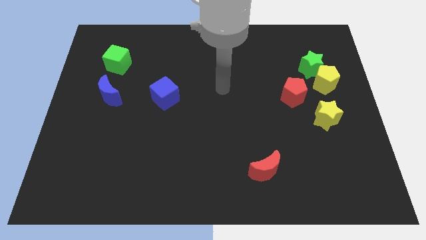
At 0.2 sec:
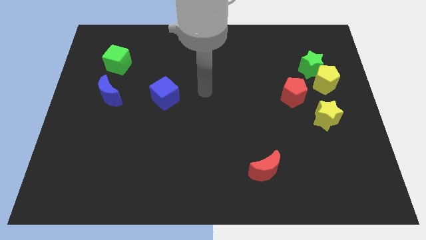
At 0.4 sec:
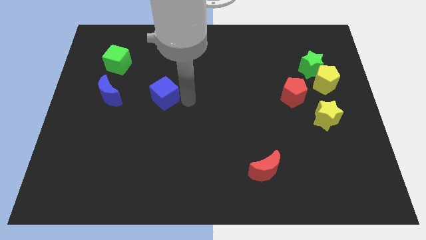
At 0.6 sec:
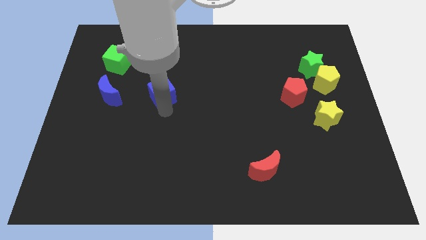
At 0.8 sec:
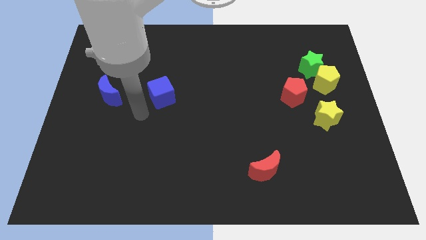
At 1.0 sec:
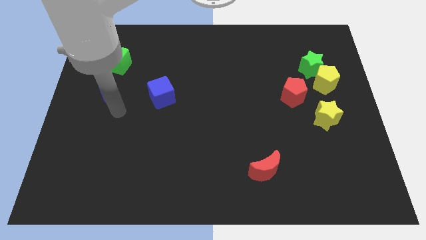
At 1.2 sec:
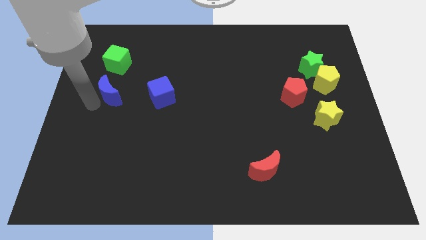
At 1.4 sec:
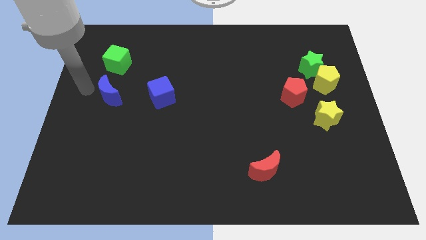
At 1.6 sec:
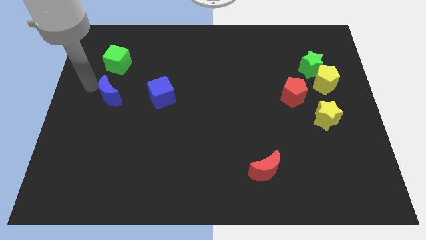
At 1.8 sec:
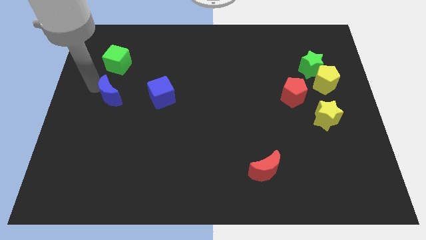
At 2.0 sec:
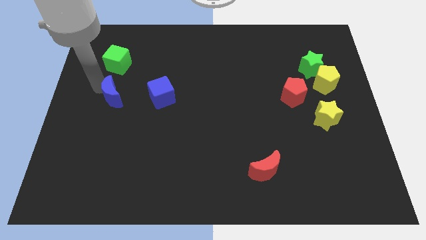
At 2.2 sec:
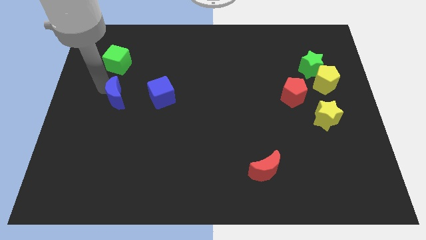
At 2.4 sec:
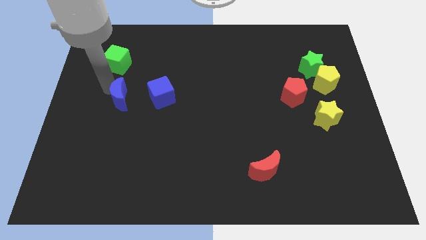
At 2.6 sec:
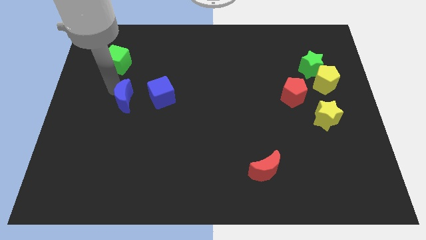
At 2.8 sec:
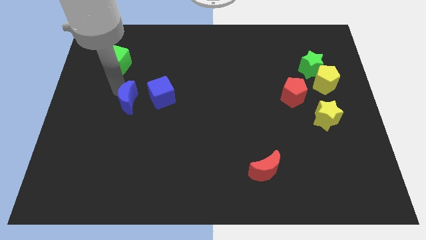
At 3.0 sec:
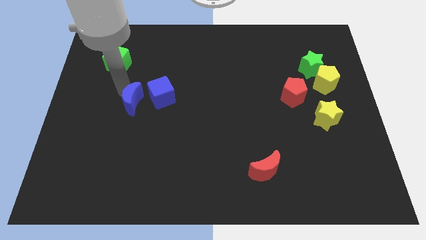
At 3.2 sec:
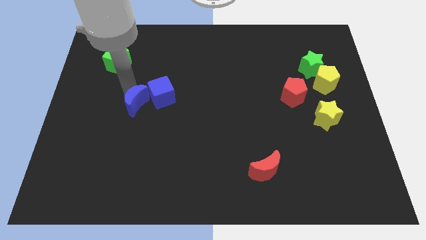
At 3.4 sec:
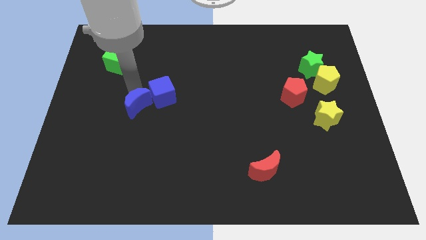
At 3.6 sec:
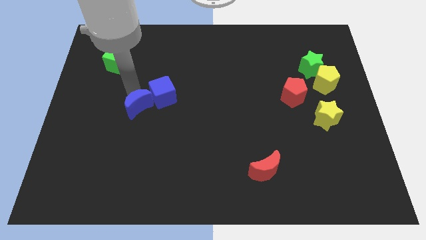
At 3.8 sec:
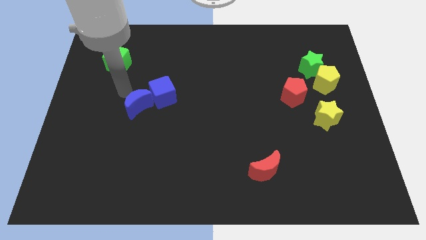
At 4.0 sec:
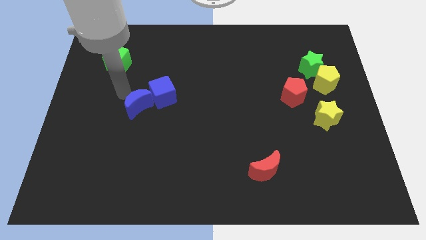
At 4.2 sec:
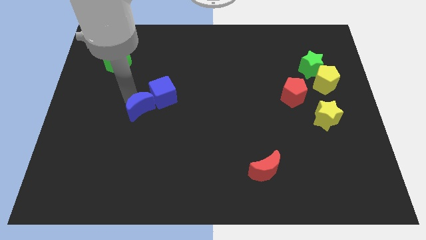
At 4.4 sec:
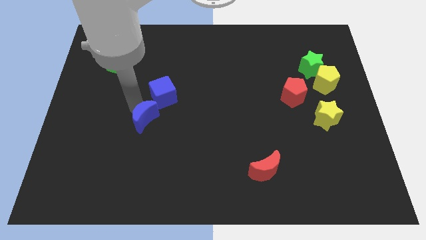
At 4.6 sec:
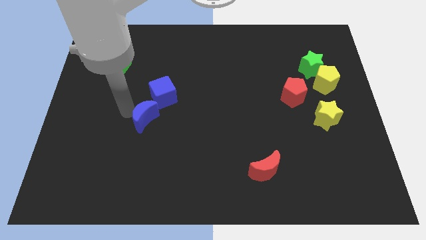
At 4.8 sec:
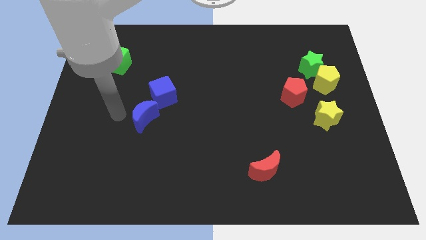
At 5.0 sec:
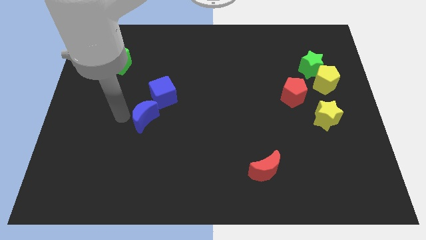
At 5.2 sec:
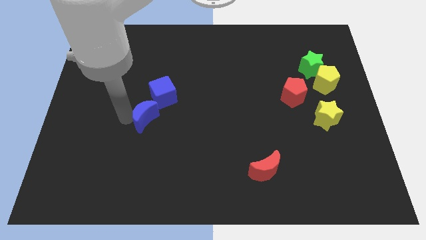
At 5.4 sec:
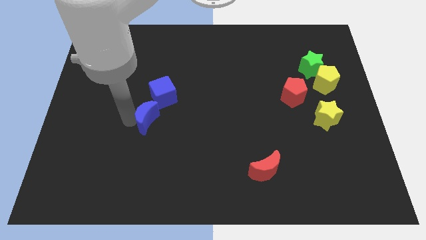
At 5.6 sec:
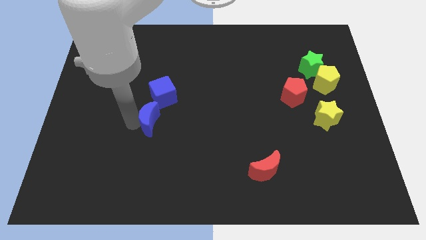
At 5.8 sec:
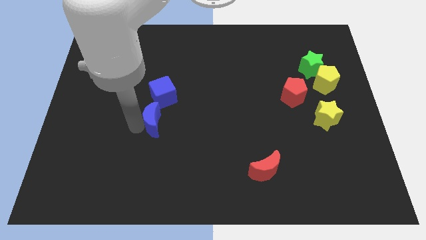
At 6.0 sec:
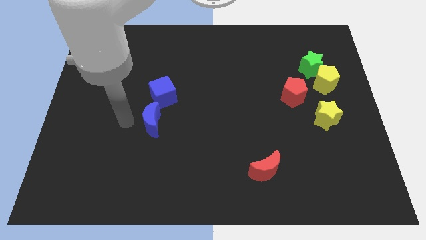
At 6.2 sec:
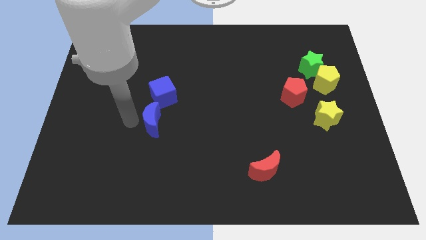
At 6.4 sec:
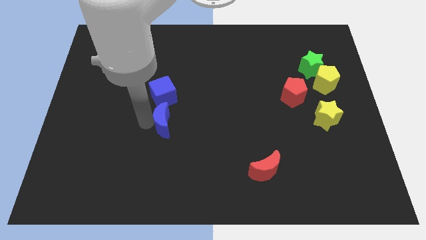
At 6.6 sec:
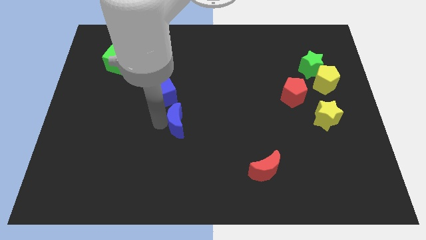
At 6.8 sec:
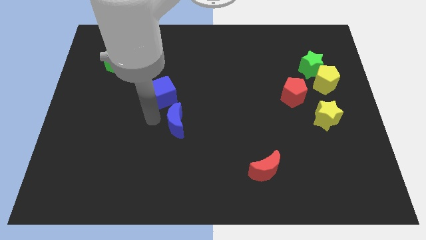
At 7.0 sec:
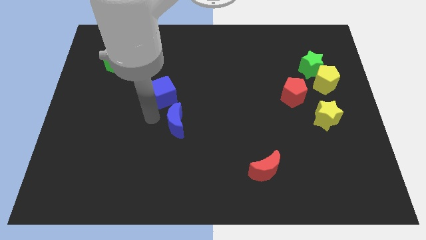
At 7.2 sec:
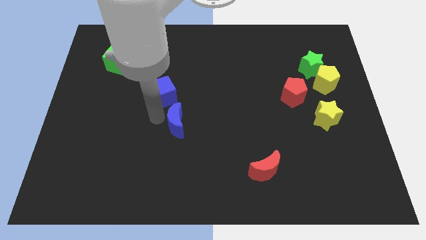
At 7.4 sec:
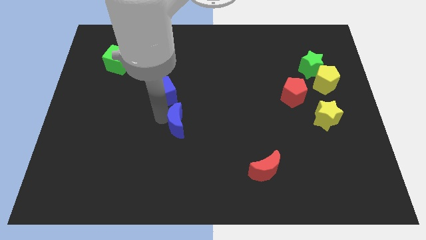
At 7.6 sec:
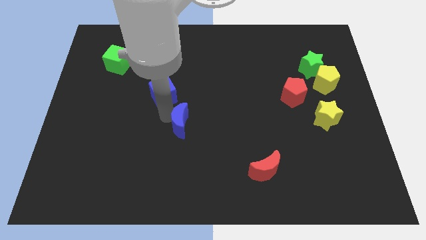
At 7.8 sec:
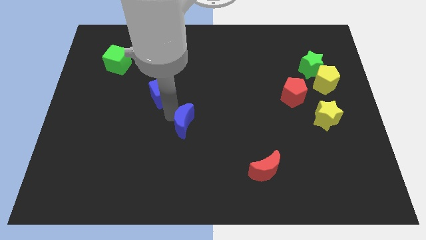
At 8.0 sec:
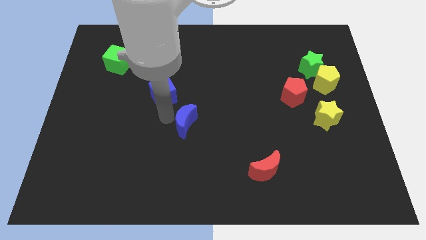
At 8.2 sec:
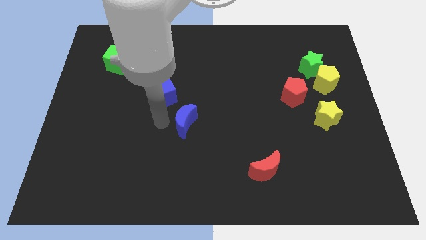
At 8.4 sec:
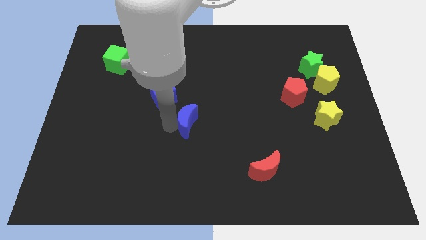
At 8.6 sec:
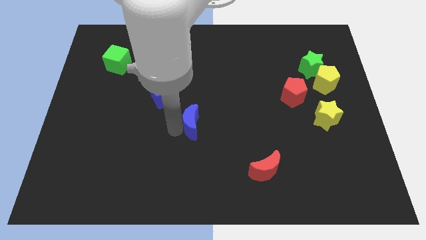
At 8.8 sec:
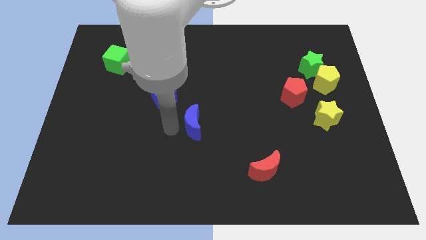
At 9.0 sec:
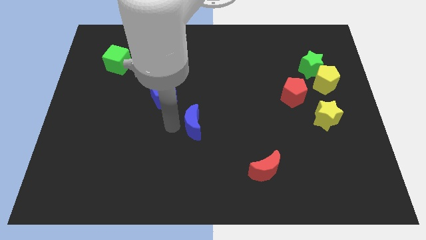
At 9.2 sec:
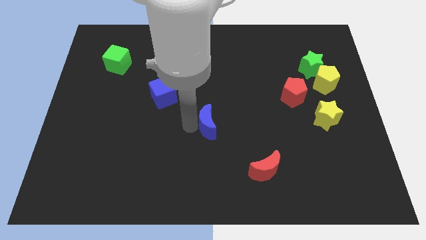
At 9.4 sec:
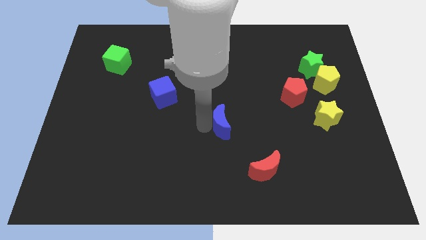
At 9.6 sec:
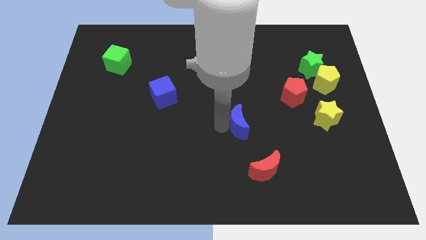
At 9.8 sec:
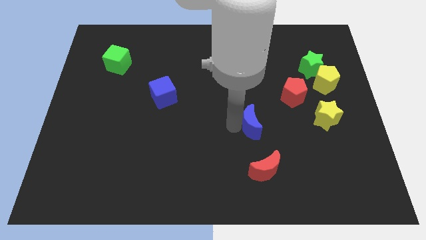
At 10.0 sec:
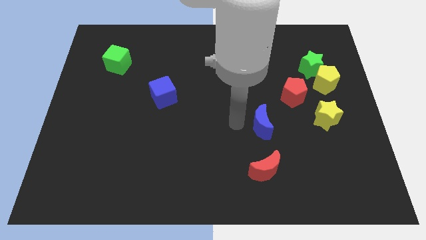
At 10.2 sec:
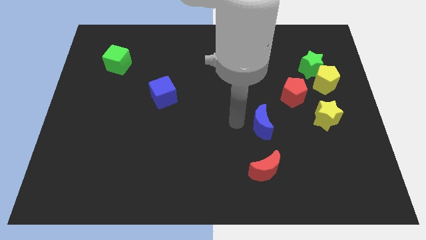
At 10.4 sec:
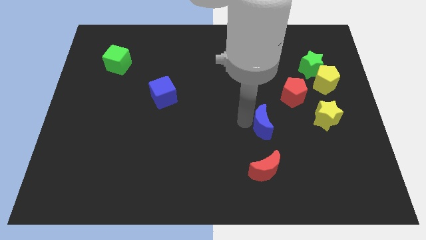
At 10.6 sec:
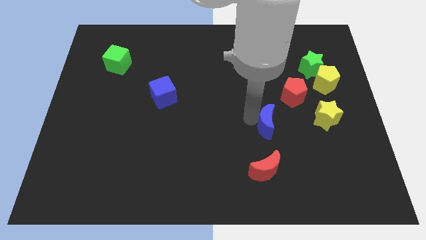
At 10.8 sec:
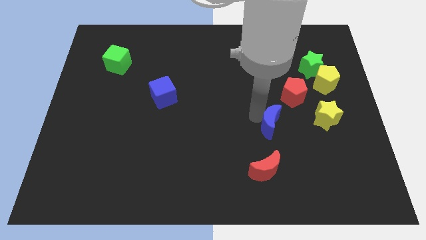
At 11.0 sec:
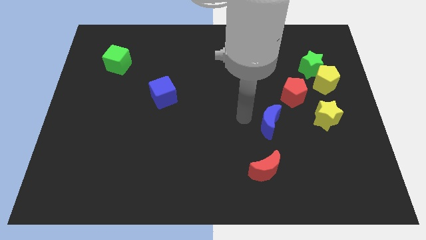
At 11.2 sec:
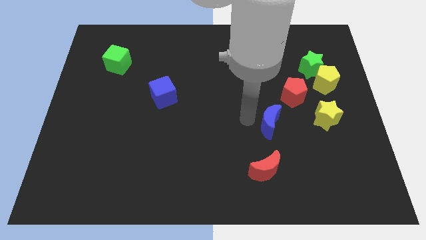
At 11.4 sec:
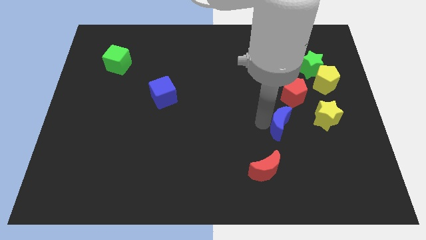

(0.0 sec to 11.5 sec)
push the blue moon below the red pentagon

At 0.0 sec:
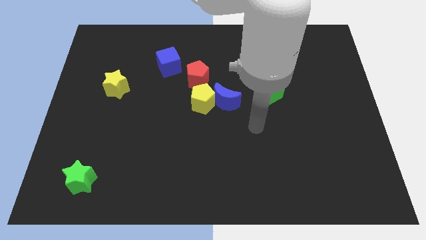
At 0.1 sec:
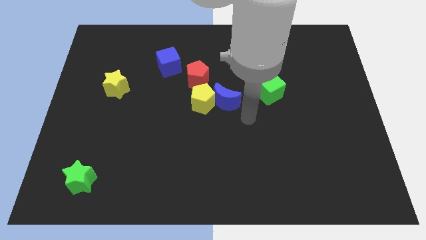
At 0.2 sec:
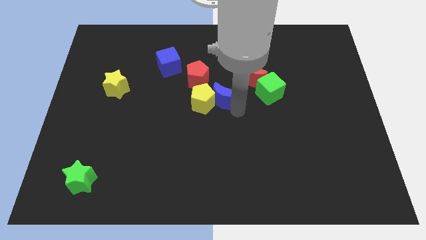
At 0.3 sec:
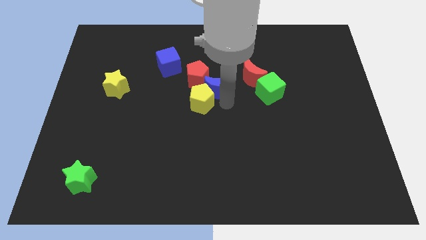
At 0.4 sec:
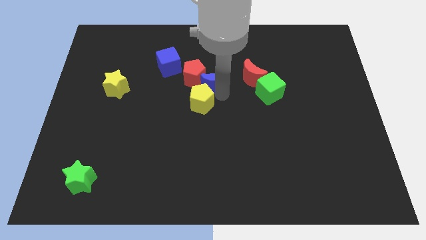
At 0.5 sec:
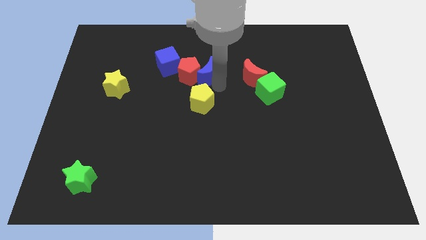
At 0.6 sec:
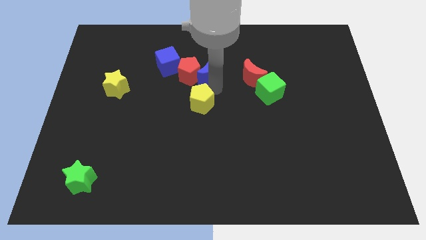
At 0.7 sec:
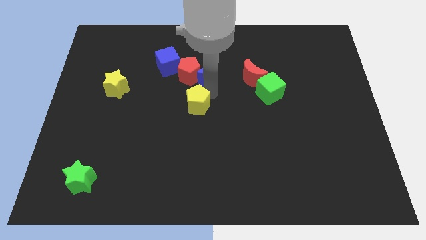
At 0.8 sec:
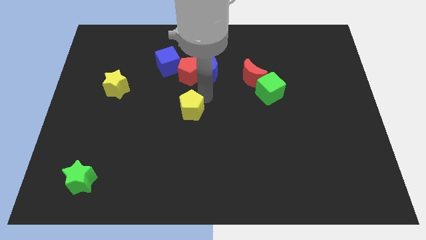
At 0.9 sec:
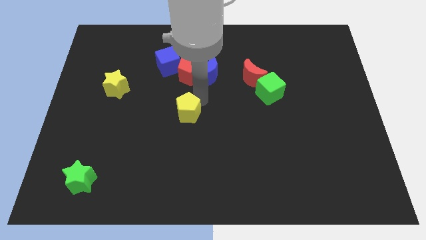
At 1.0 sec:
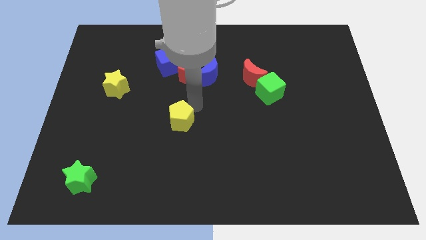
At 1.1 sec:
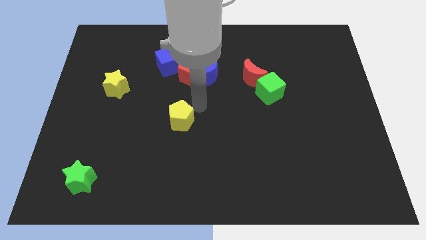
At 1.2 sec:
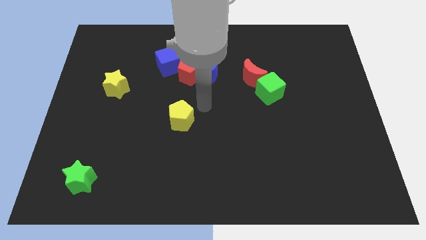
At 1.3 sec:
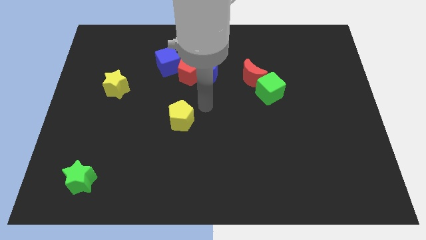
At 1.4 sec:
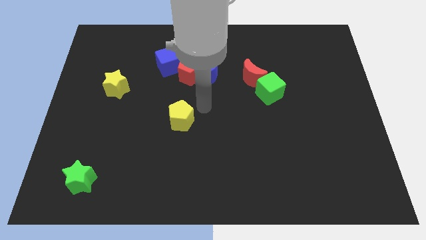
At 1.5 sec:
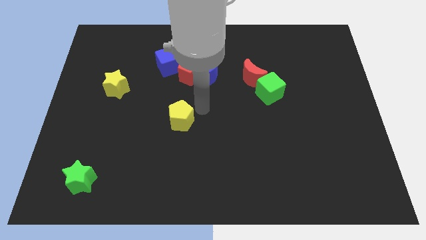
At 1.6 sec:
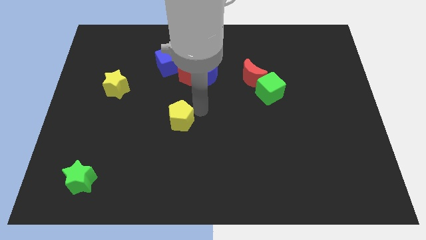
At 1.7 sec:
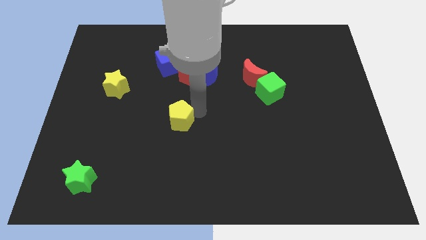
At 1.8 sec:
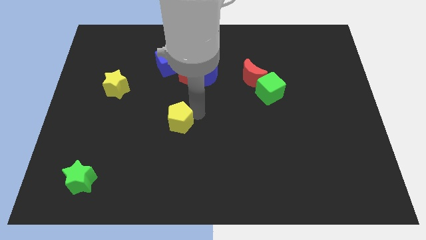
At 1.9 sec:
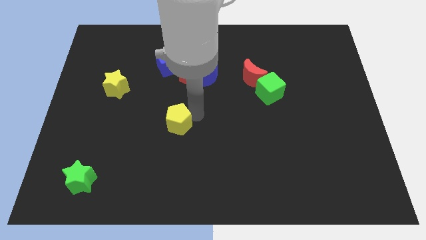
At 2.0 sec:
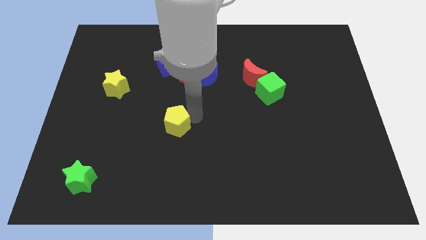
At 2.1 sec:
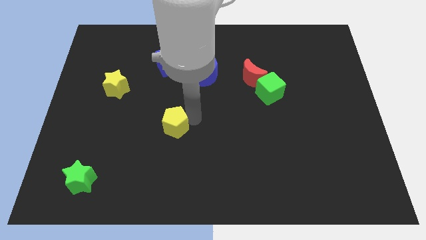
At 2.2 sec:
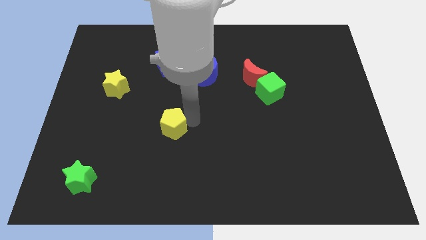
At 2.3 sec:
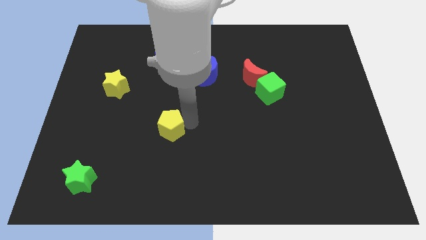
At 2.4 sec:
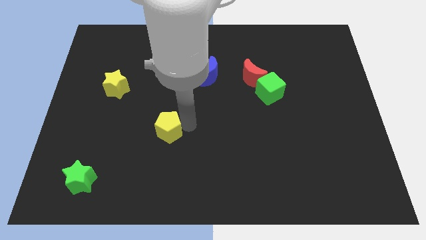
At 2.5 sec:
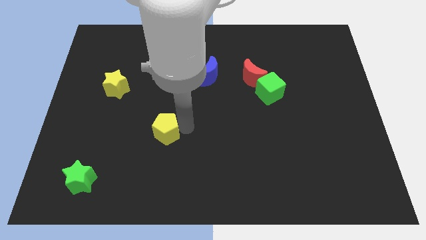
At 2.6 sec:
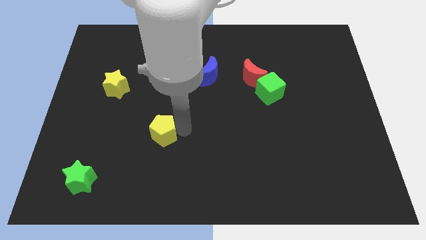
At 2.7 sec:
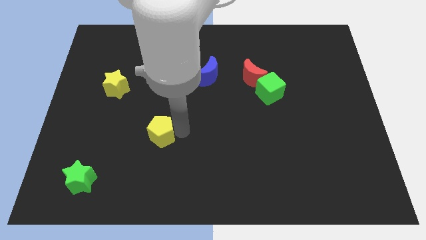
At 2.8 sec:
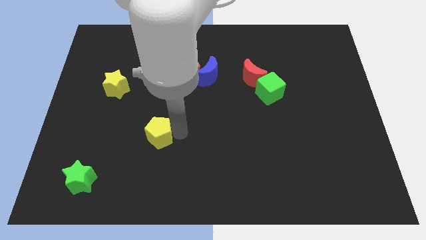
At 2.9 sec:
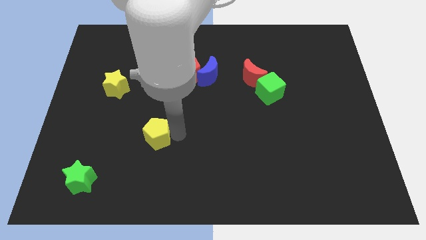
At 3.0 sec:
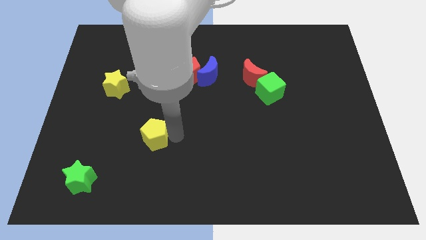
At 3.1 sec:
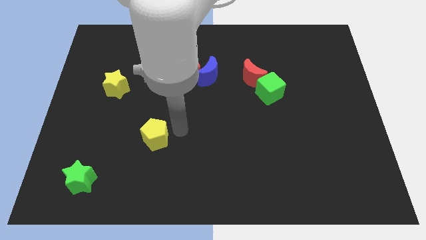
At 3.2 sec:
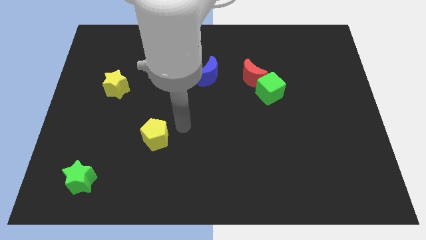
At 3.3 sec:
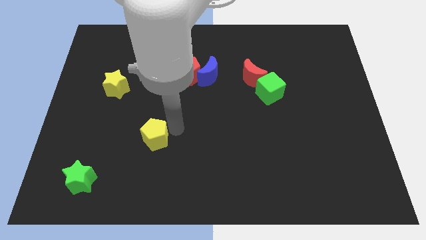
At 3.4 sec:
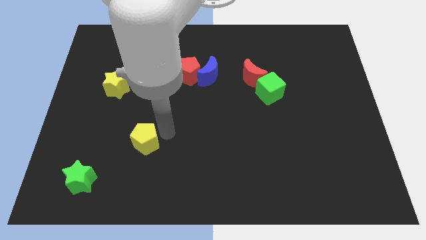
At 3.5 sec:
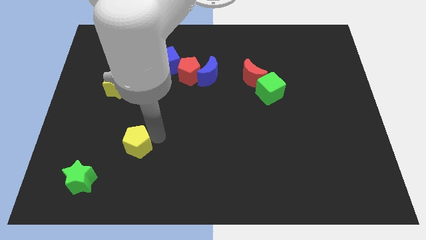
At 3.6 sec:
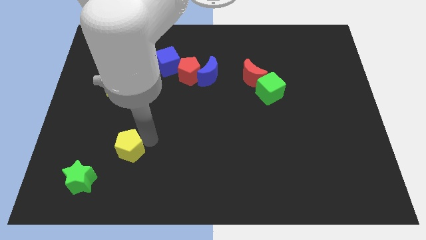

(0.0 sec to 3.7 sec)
move the yellow pentagon to the top right of the green star
